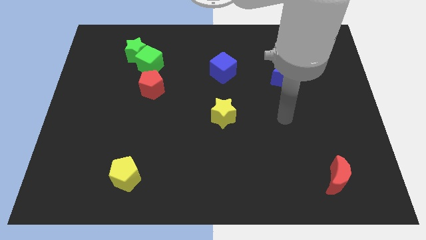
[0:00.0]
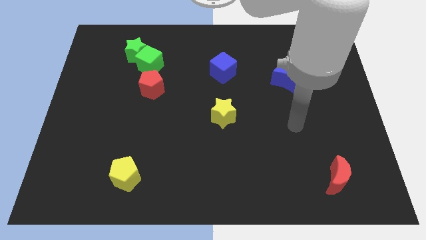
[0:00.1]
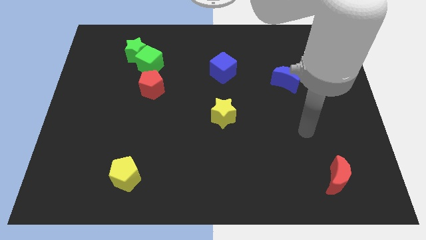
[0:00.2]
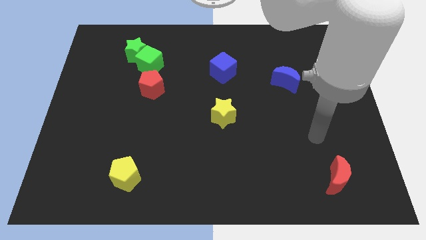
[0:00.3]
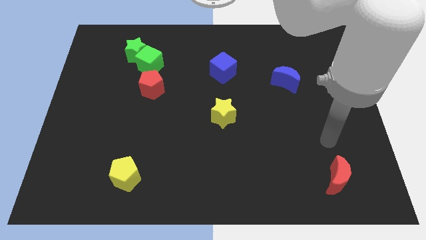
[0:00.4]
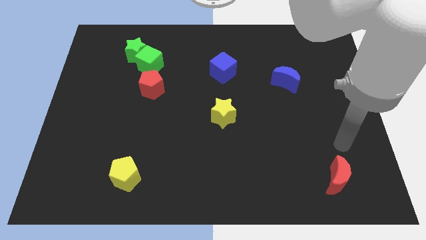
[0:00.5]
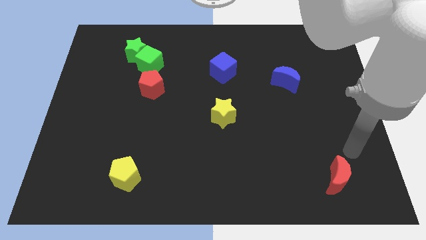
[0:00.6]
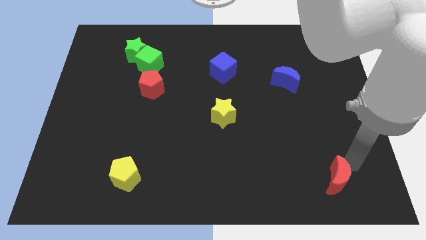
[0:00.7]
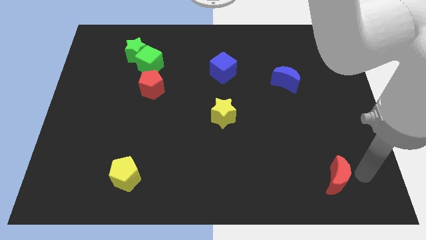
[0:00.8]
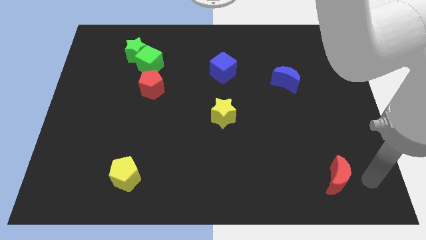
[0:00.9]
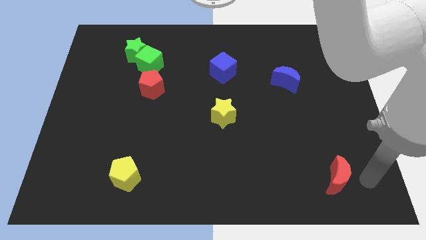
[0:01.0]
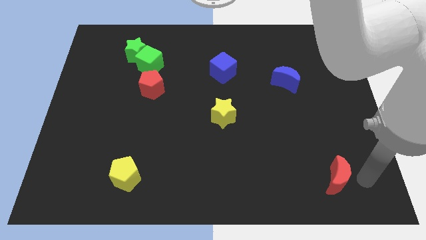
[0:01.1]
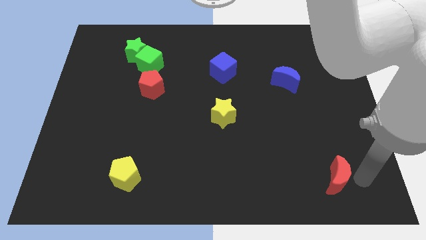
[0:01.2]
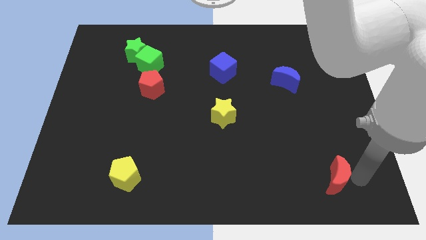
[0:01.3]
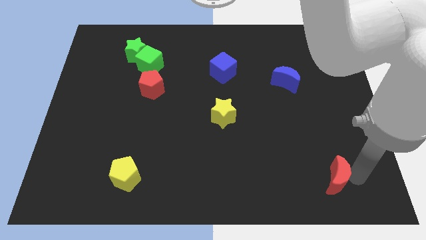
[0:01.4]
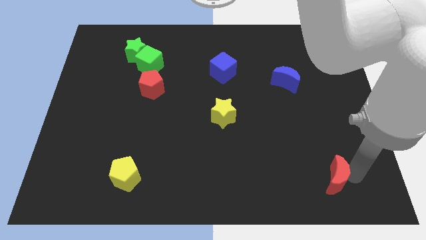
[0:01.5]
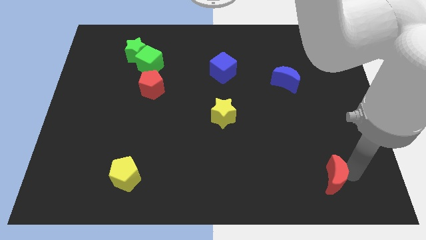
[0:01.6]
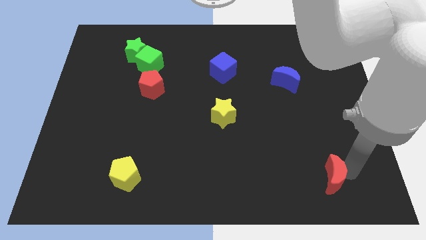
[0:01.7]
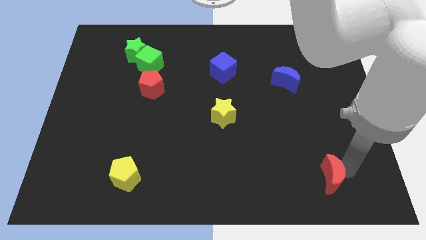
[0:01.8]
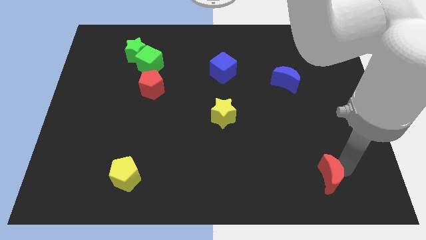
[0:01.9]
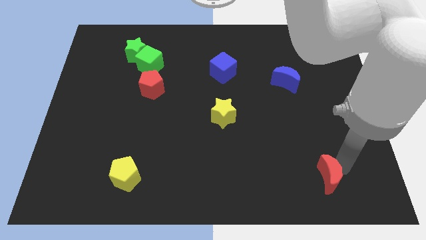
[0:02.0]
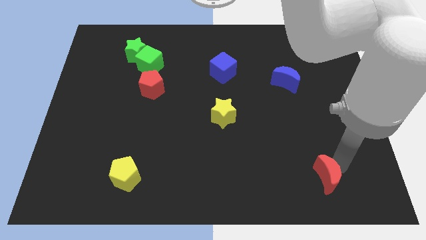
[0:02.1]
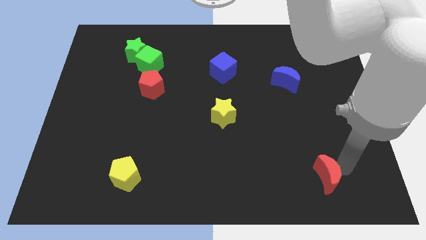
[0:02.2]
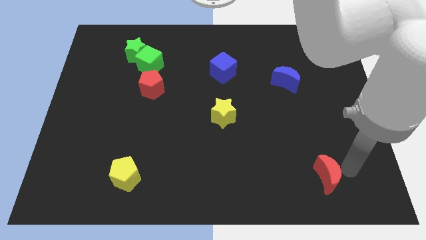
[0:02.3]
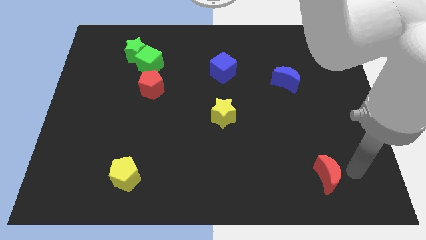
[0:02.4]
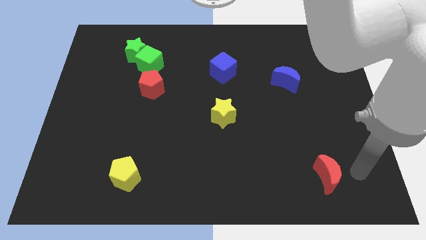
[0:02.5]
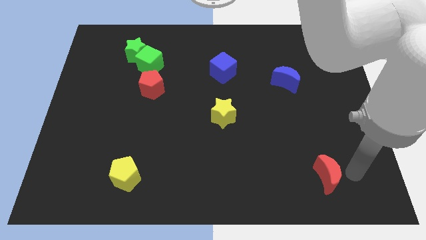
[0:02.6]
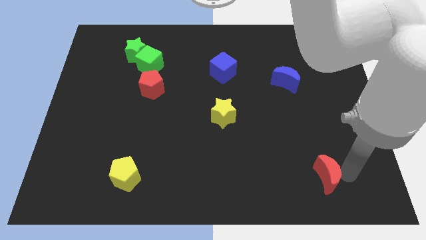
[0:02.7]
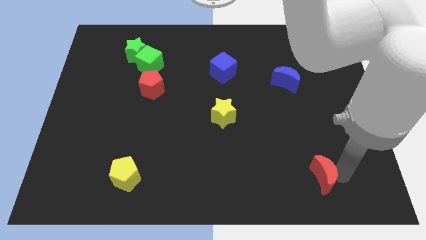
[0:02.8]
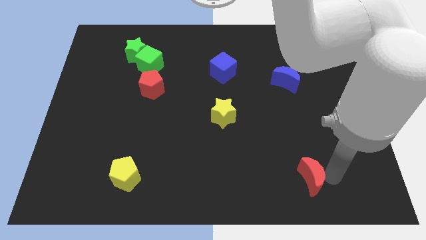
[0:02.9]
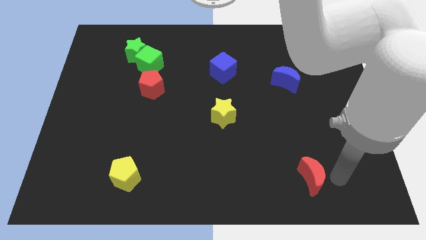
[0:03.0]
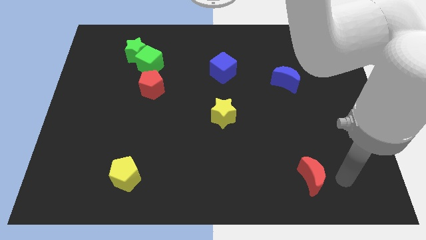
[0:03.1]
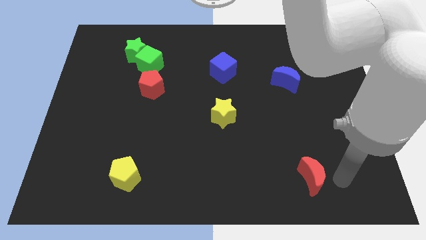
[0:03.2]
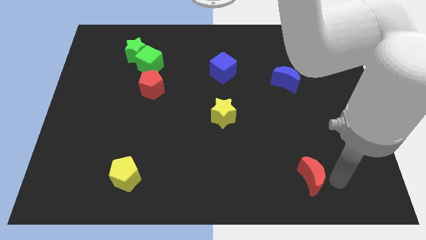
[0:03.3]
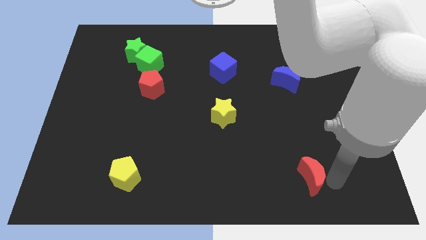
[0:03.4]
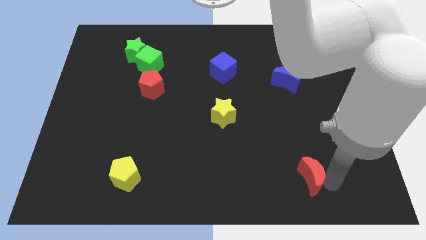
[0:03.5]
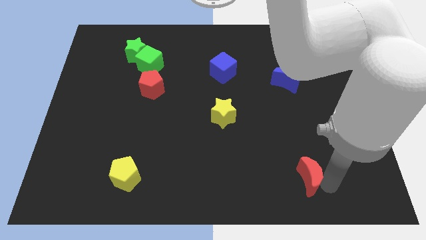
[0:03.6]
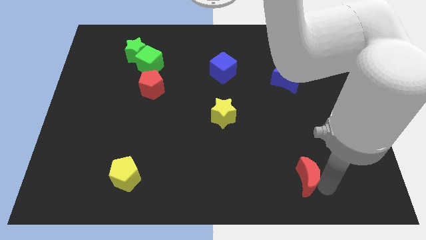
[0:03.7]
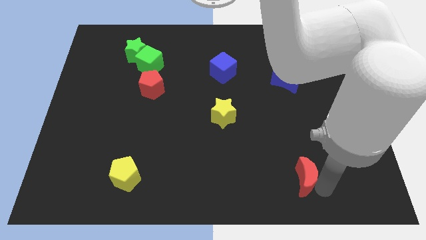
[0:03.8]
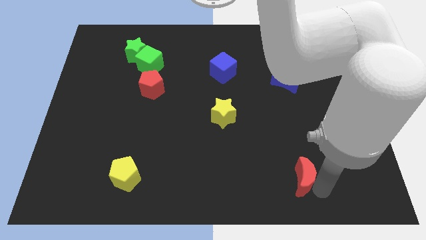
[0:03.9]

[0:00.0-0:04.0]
slightly slide the red moon to the left

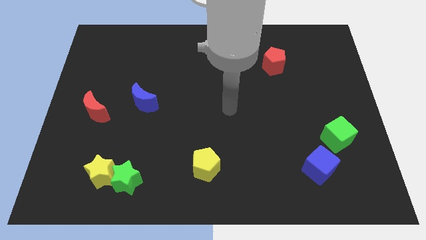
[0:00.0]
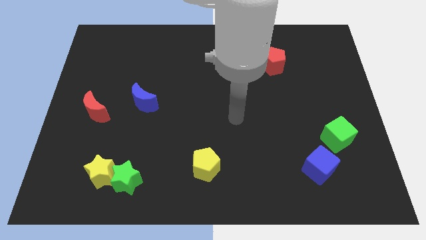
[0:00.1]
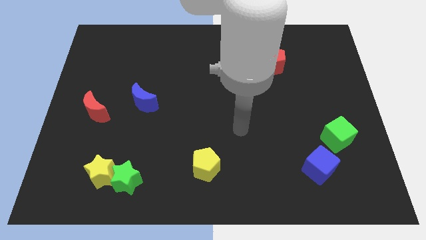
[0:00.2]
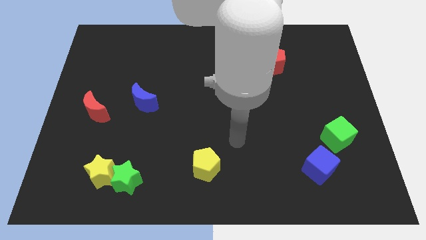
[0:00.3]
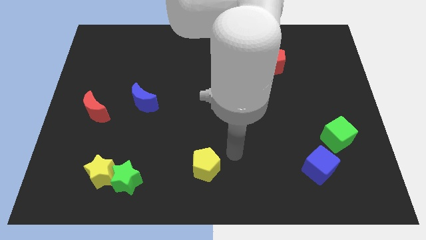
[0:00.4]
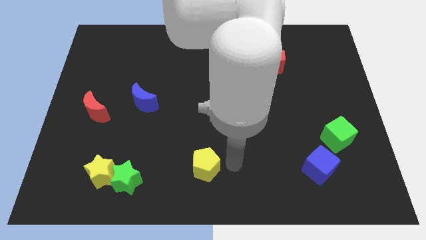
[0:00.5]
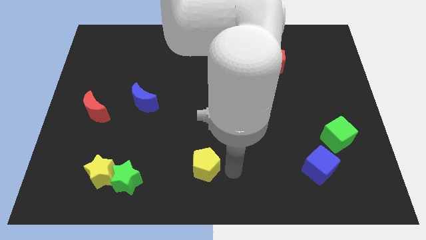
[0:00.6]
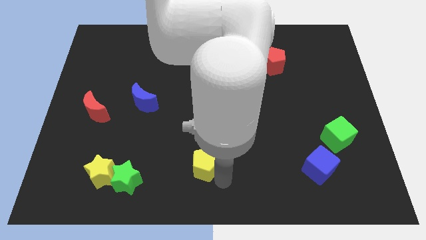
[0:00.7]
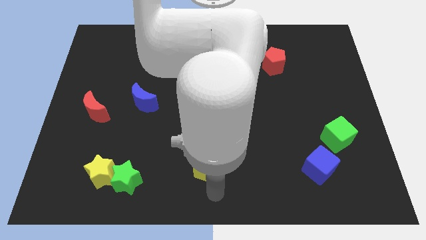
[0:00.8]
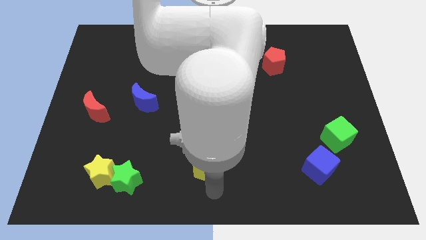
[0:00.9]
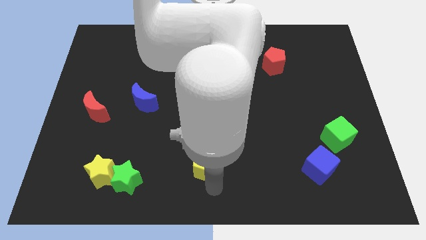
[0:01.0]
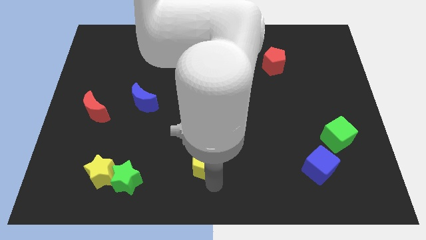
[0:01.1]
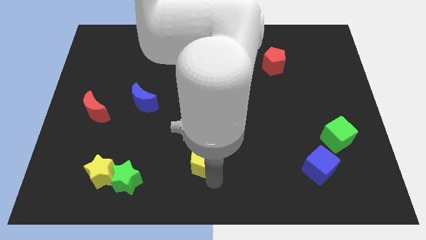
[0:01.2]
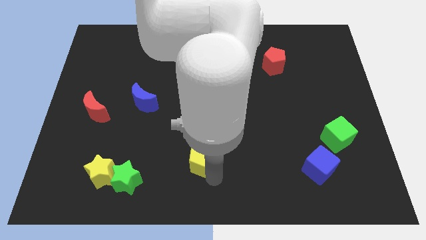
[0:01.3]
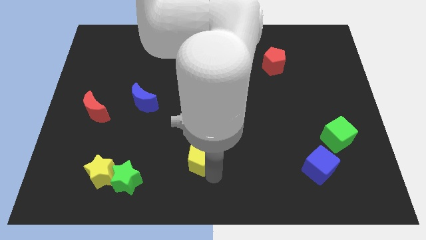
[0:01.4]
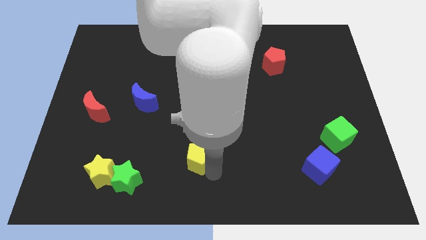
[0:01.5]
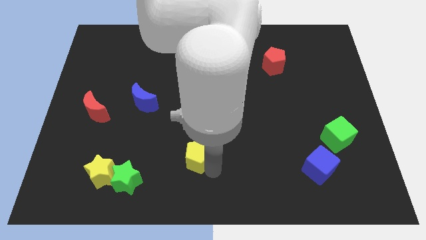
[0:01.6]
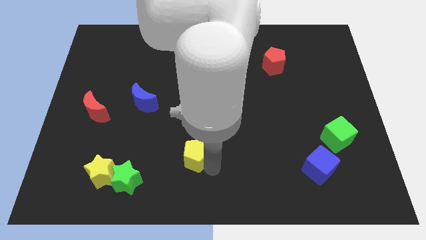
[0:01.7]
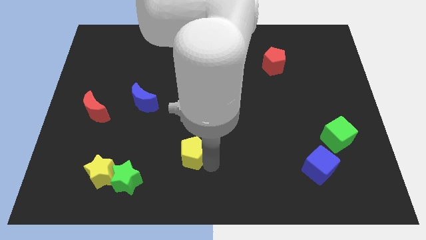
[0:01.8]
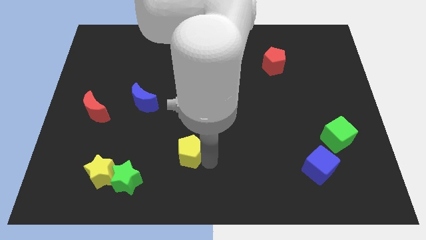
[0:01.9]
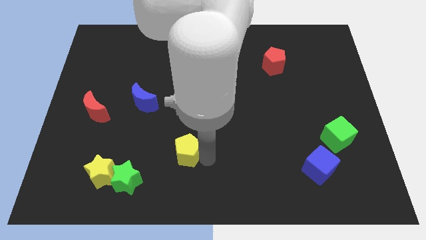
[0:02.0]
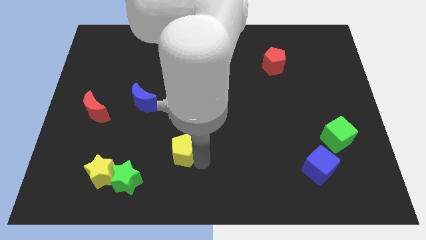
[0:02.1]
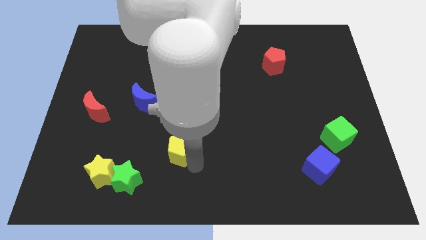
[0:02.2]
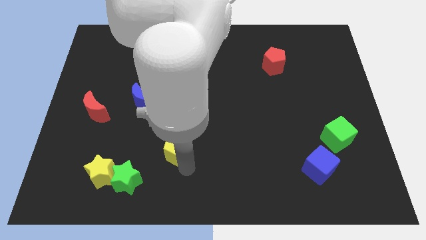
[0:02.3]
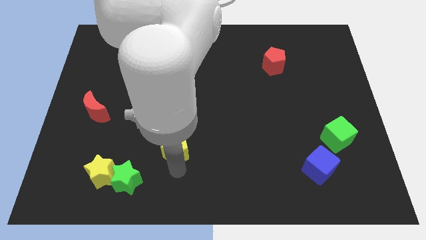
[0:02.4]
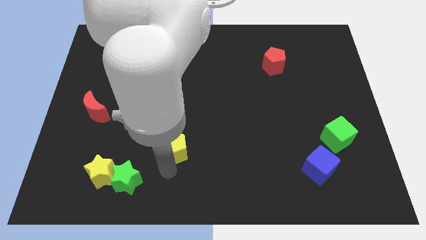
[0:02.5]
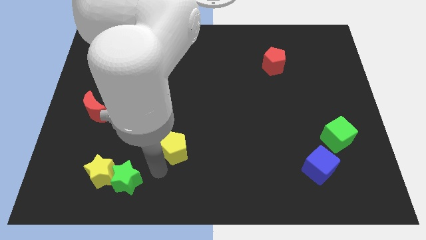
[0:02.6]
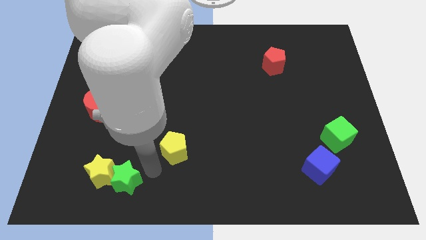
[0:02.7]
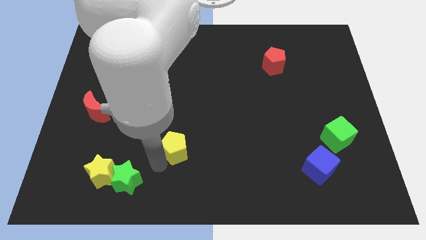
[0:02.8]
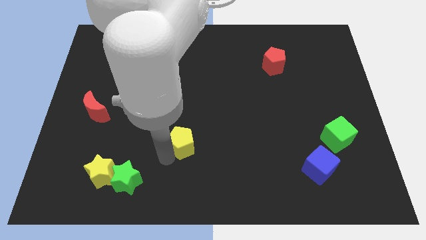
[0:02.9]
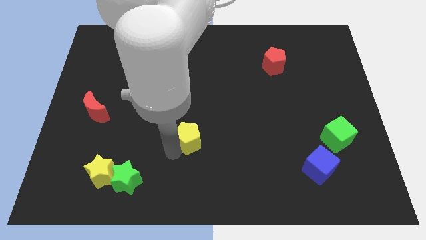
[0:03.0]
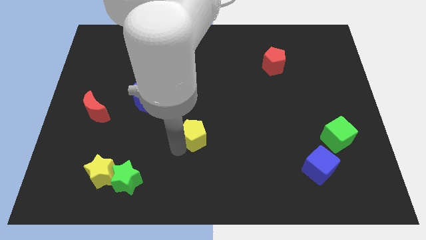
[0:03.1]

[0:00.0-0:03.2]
push the yellow pentagon a bit upwards

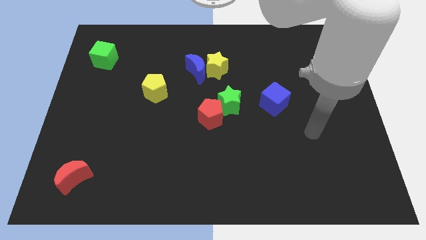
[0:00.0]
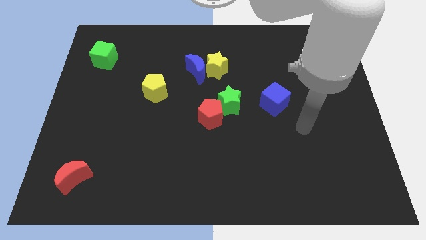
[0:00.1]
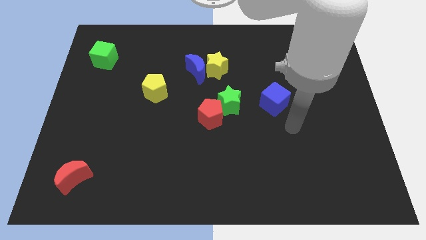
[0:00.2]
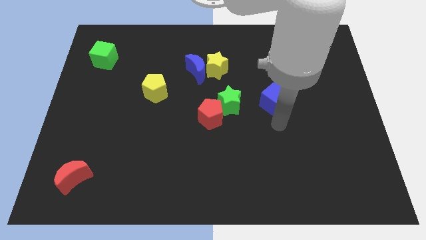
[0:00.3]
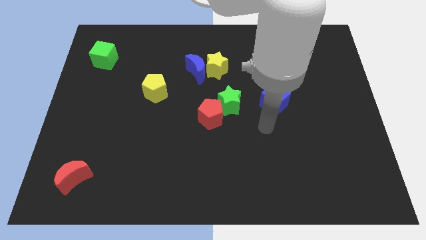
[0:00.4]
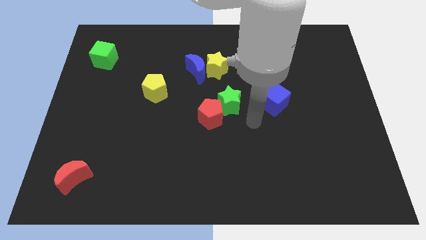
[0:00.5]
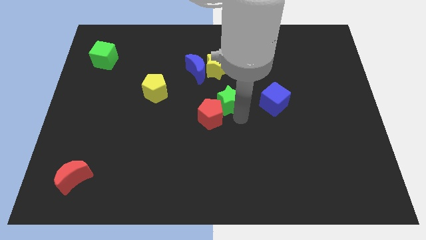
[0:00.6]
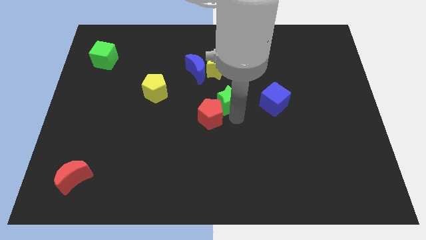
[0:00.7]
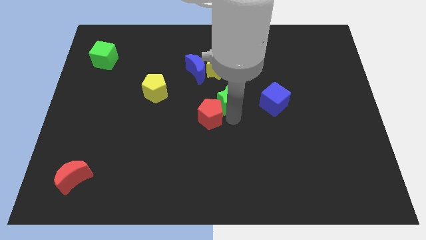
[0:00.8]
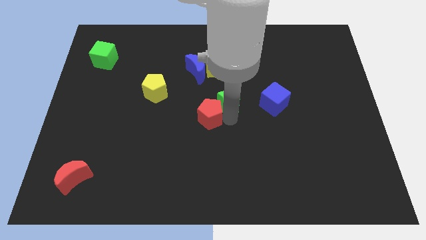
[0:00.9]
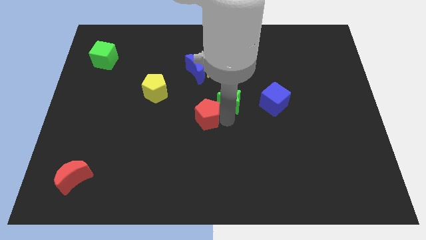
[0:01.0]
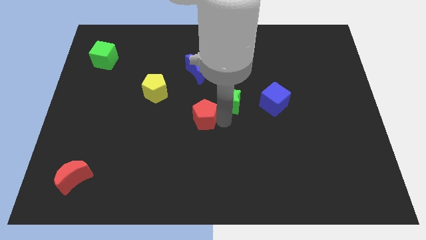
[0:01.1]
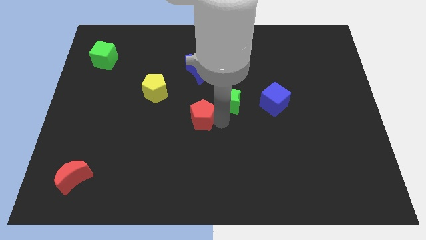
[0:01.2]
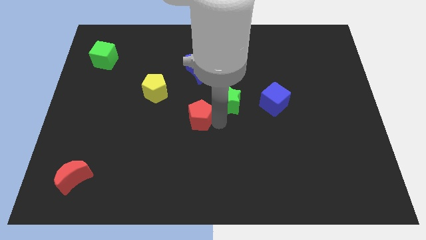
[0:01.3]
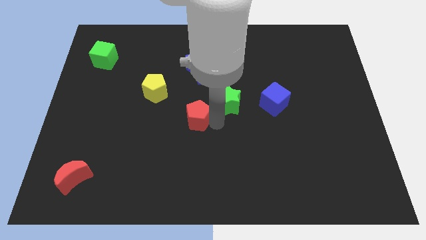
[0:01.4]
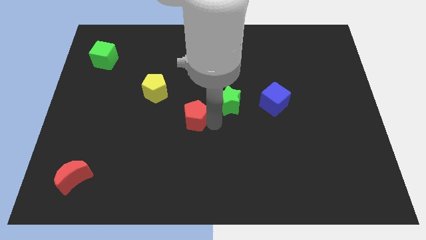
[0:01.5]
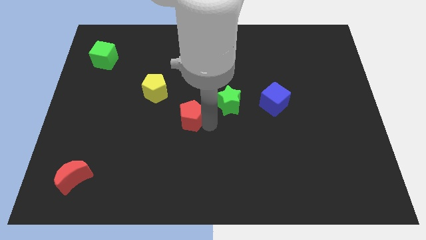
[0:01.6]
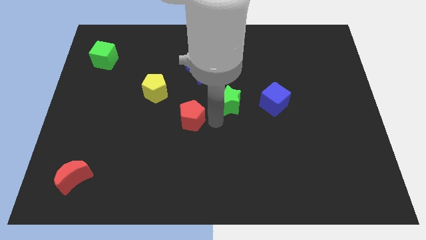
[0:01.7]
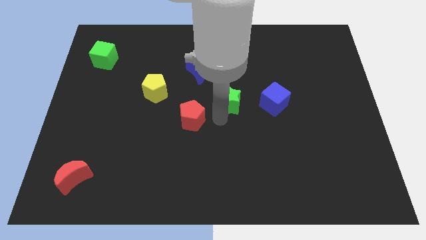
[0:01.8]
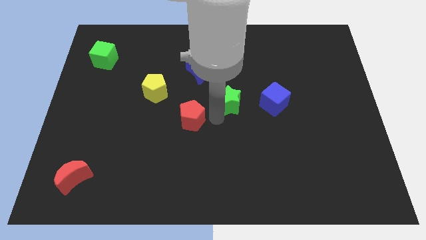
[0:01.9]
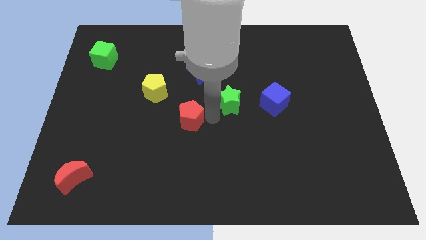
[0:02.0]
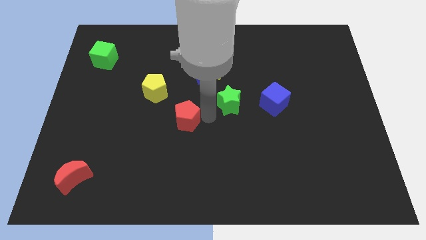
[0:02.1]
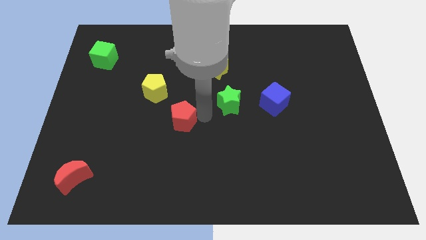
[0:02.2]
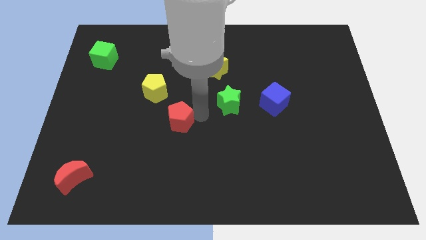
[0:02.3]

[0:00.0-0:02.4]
slightly slide the red pentagon left
